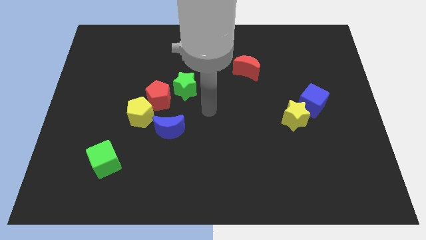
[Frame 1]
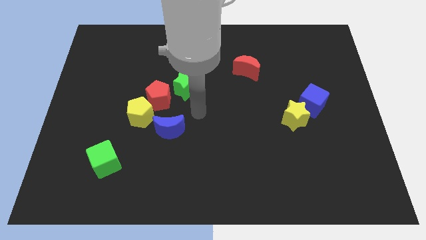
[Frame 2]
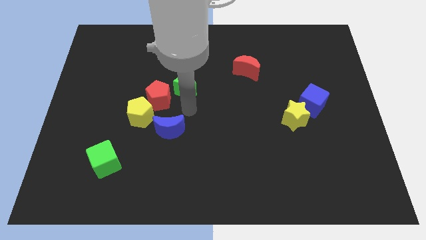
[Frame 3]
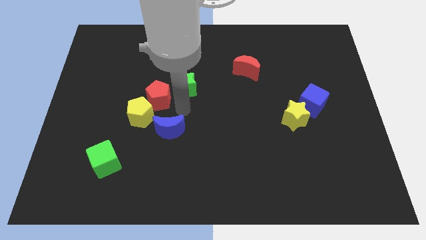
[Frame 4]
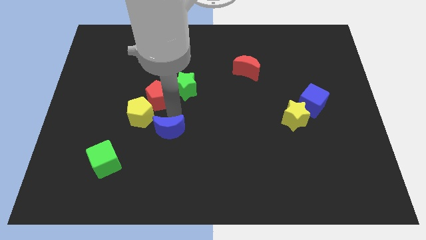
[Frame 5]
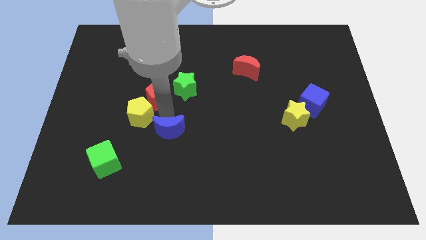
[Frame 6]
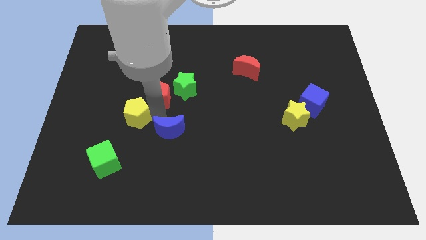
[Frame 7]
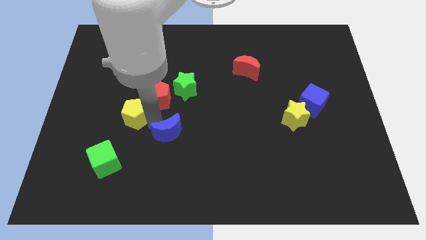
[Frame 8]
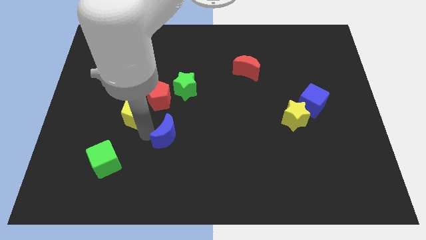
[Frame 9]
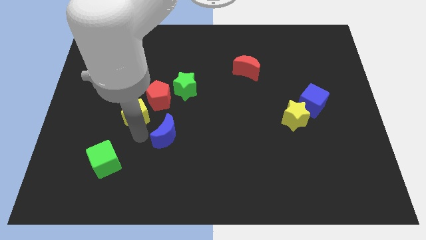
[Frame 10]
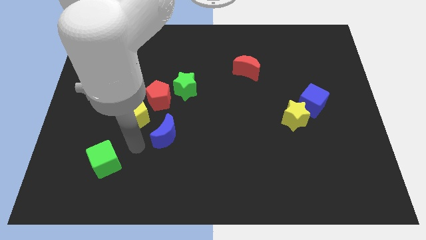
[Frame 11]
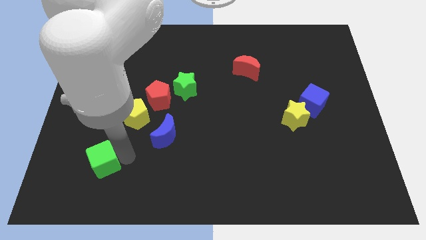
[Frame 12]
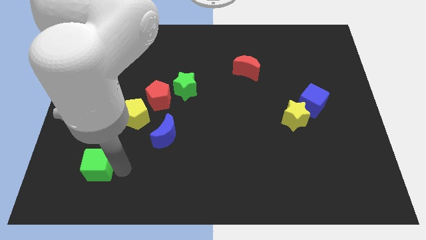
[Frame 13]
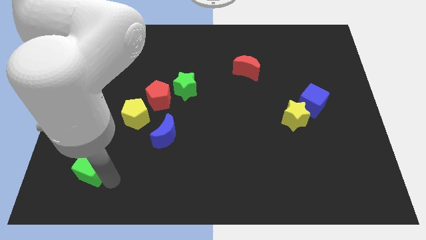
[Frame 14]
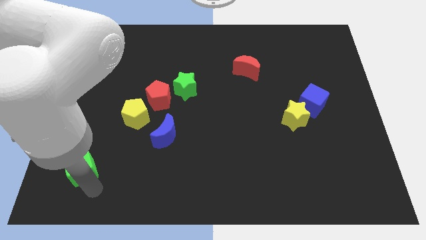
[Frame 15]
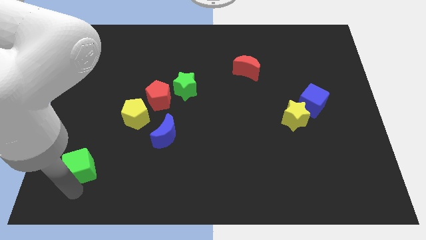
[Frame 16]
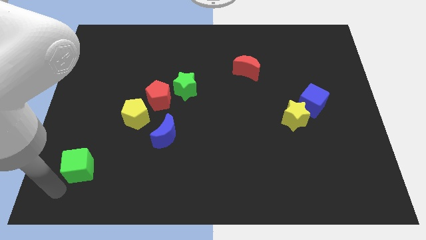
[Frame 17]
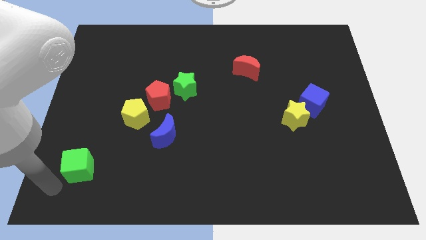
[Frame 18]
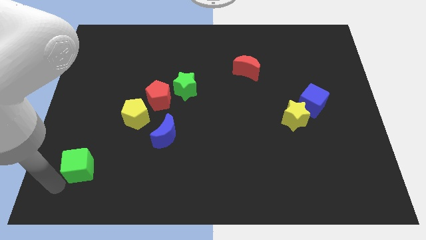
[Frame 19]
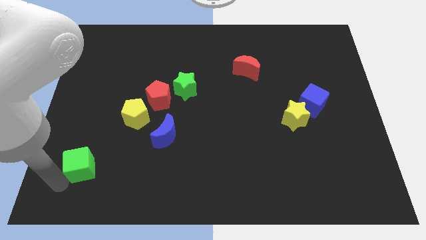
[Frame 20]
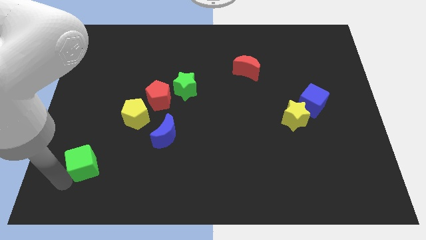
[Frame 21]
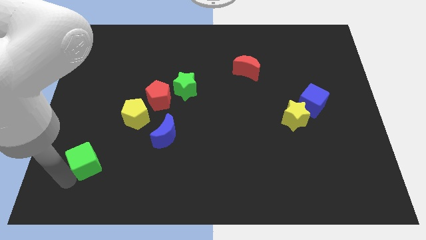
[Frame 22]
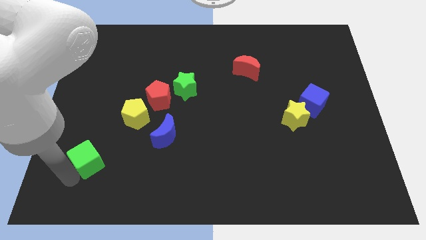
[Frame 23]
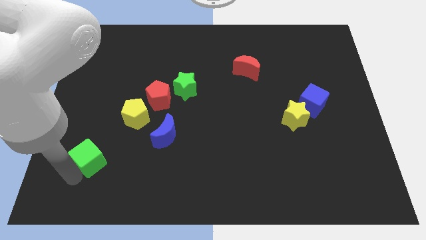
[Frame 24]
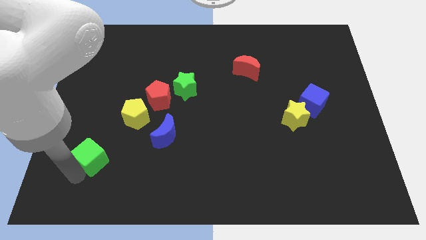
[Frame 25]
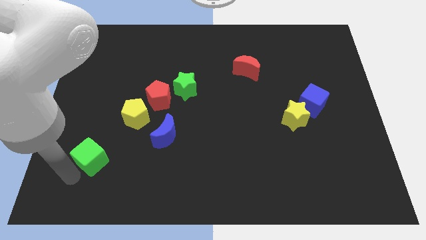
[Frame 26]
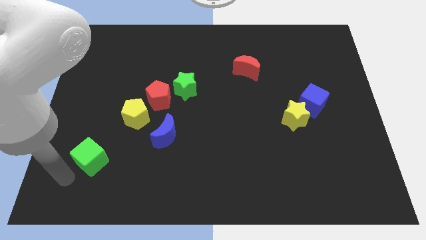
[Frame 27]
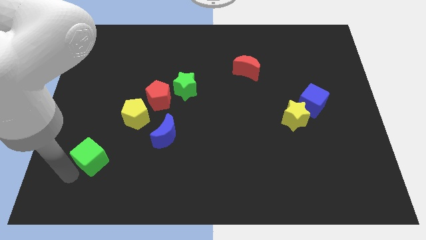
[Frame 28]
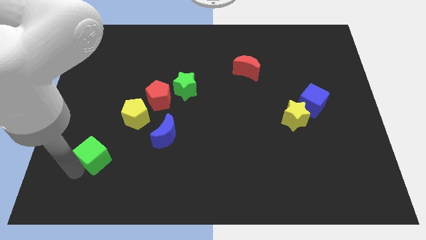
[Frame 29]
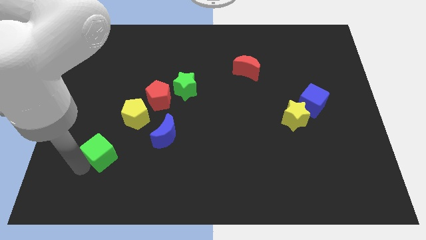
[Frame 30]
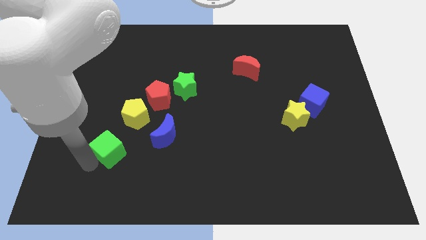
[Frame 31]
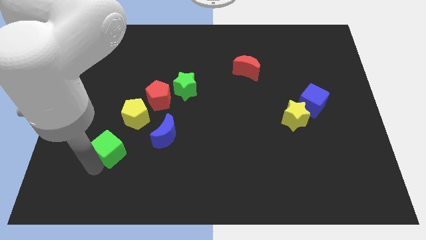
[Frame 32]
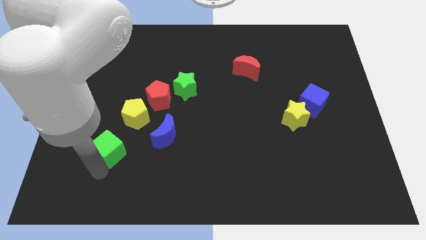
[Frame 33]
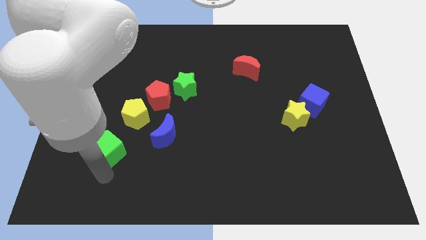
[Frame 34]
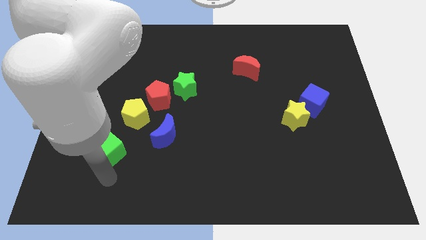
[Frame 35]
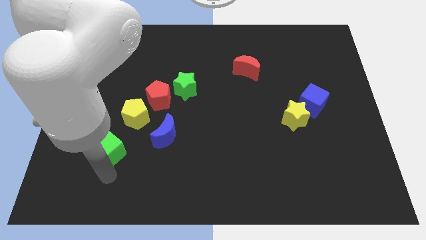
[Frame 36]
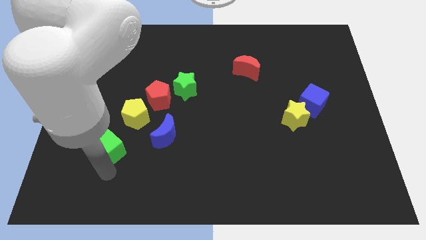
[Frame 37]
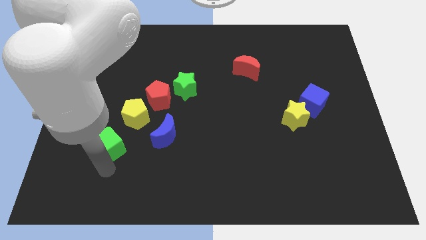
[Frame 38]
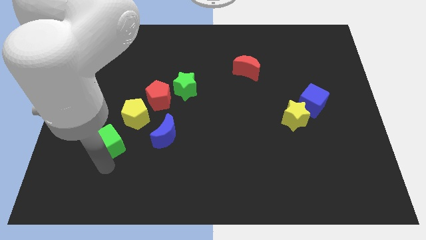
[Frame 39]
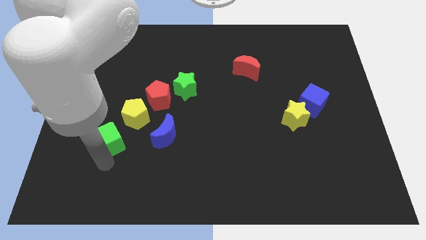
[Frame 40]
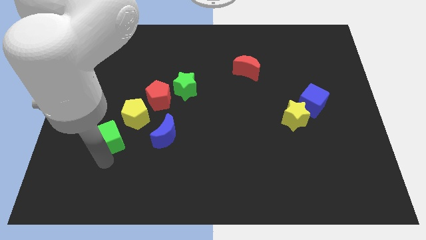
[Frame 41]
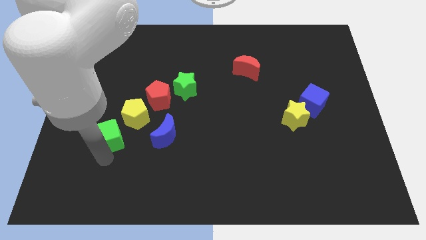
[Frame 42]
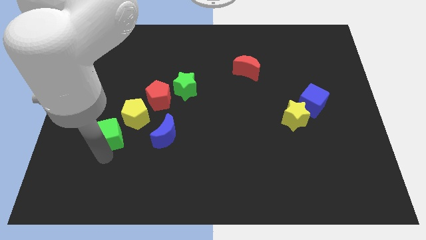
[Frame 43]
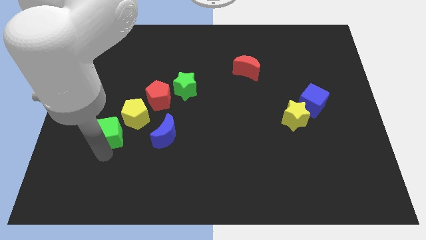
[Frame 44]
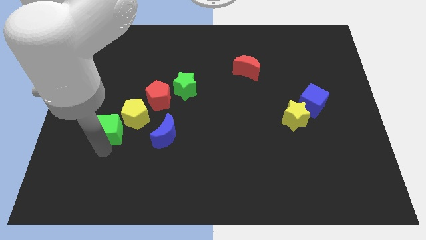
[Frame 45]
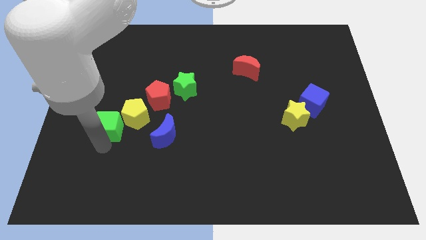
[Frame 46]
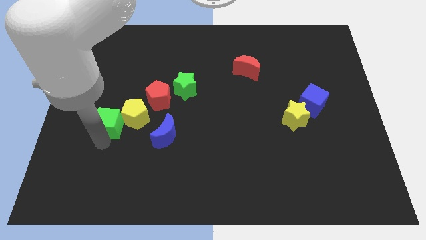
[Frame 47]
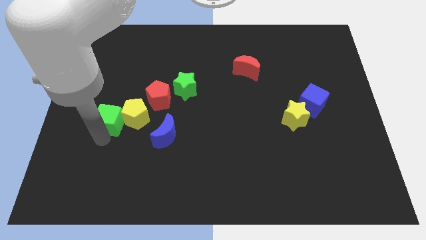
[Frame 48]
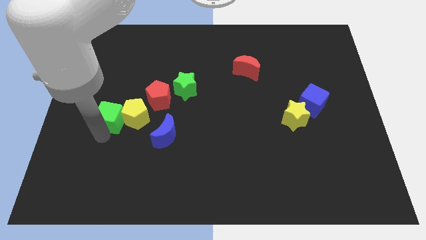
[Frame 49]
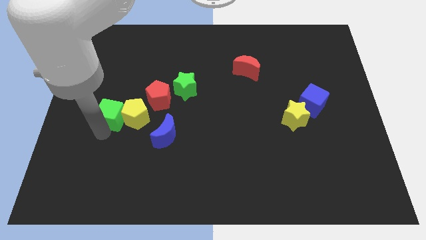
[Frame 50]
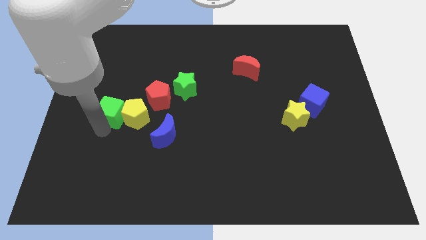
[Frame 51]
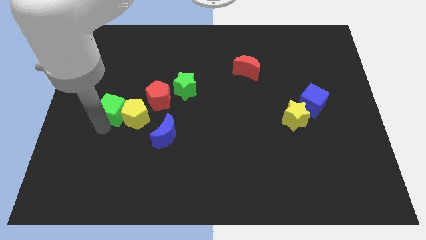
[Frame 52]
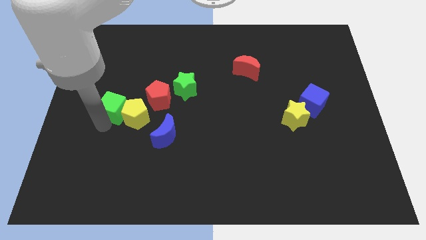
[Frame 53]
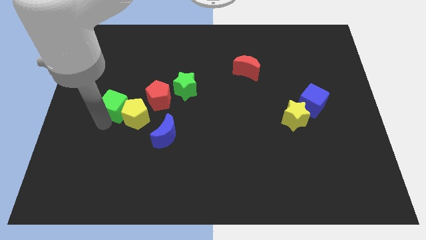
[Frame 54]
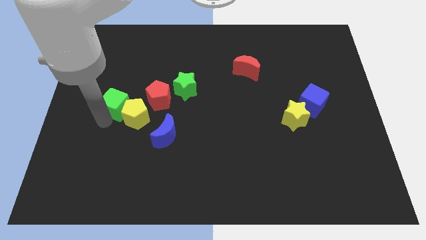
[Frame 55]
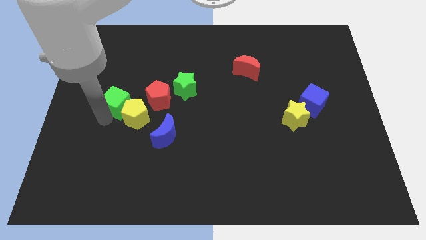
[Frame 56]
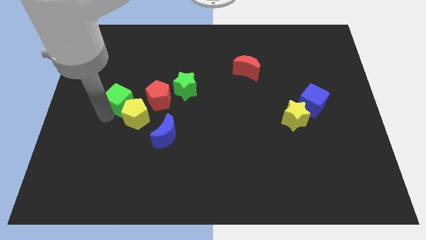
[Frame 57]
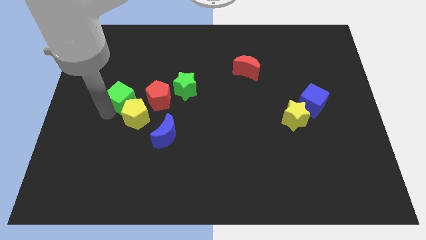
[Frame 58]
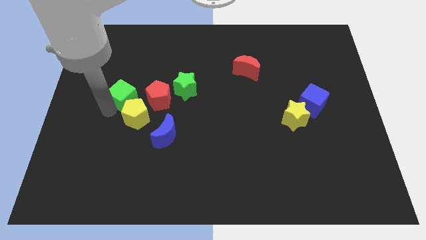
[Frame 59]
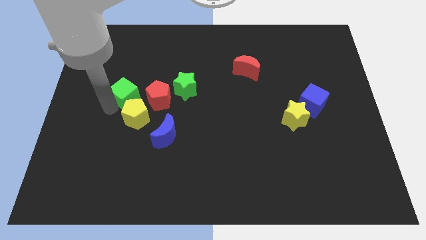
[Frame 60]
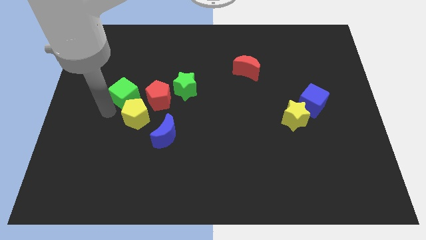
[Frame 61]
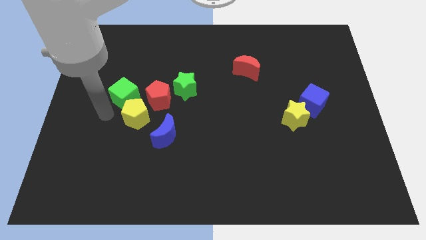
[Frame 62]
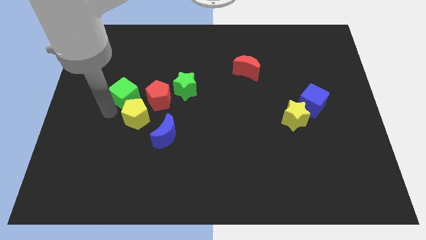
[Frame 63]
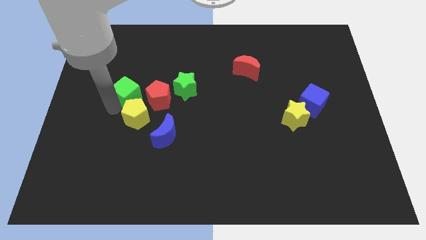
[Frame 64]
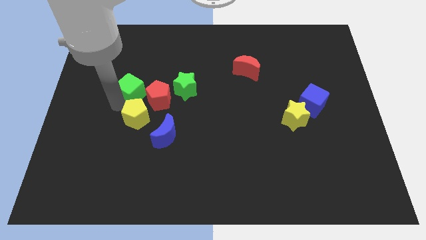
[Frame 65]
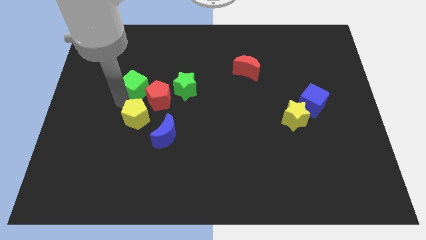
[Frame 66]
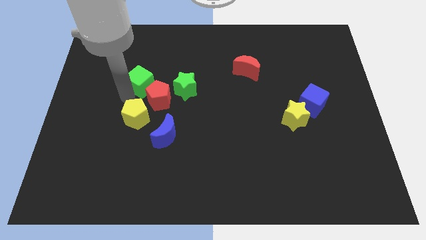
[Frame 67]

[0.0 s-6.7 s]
put the green cube above the red pentagon

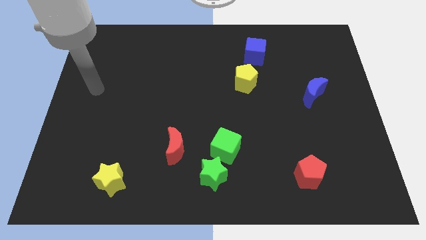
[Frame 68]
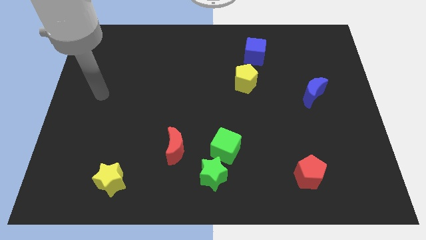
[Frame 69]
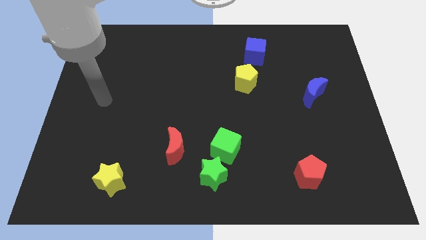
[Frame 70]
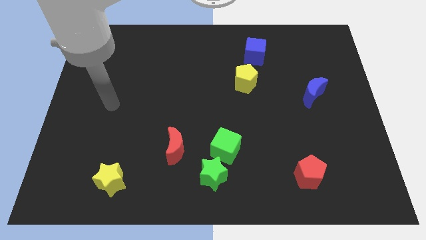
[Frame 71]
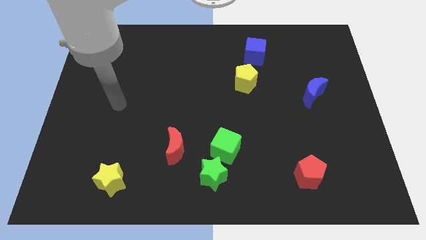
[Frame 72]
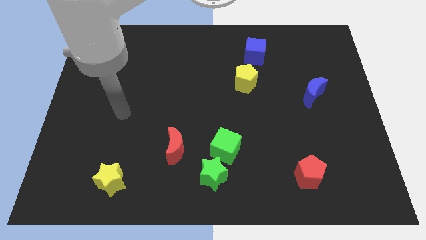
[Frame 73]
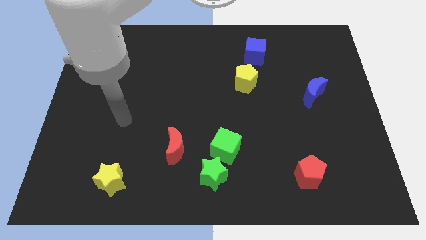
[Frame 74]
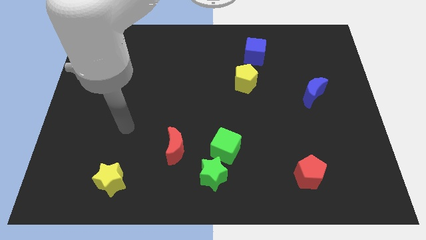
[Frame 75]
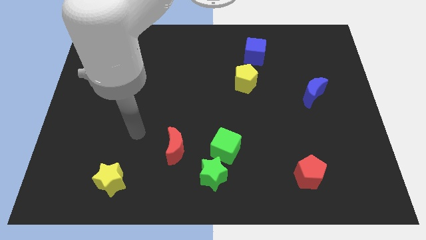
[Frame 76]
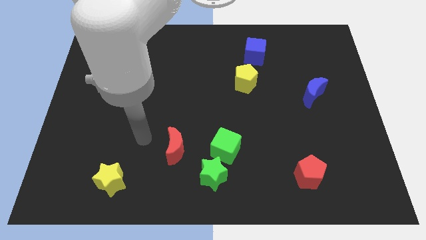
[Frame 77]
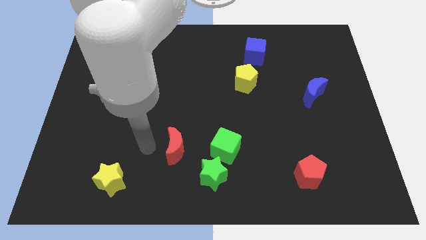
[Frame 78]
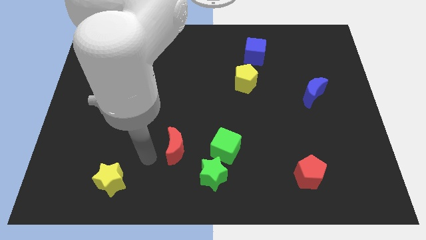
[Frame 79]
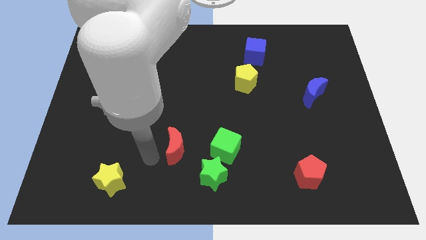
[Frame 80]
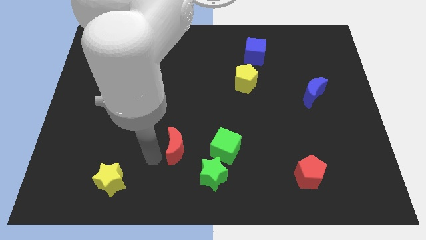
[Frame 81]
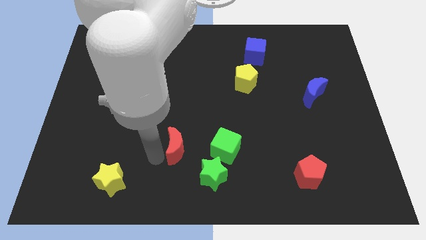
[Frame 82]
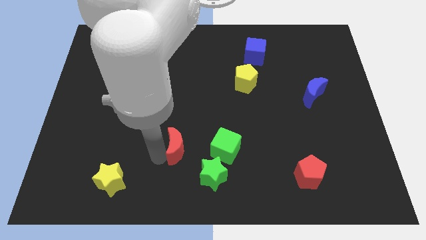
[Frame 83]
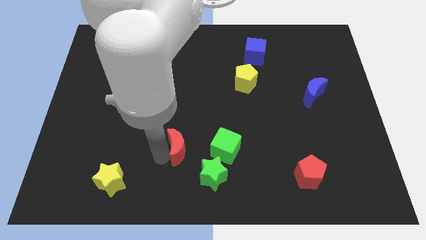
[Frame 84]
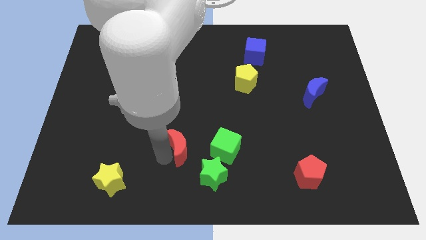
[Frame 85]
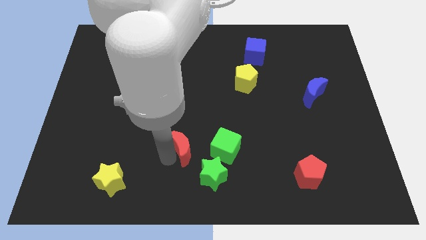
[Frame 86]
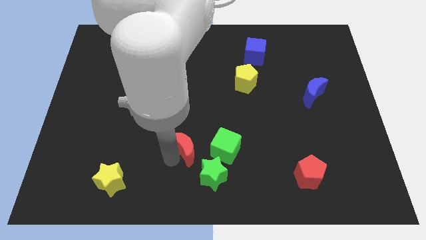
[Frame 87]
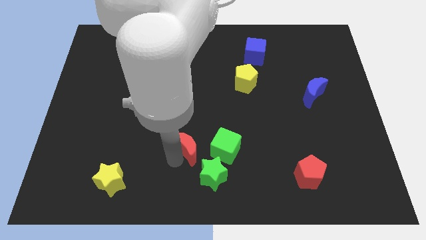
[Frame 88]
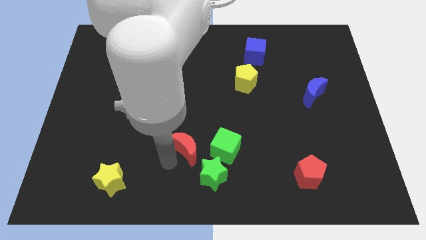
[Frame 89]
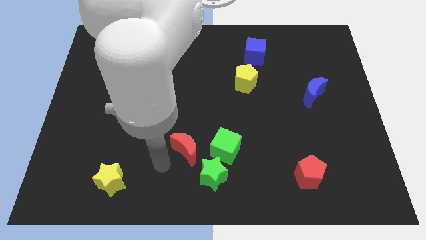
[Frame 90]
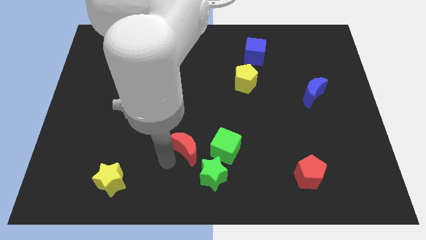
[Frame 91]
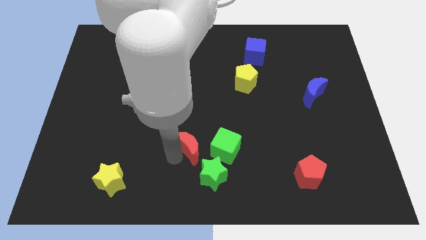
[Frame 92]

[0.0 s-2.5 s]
push the red moon above the green star
